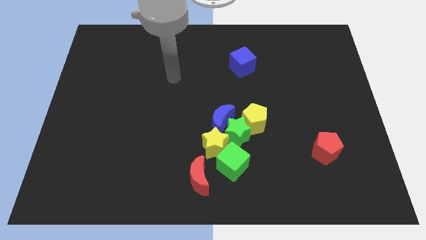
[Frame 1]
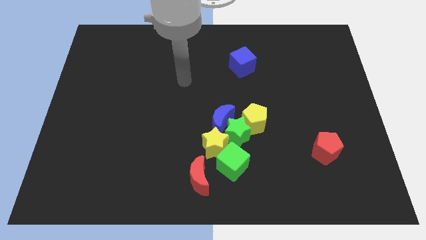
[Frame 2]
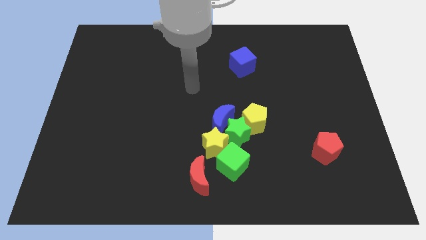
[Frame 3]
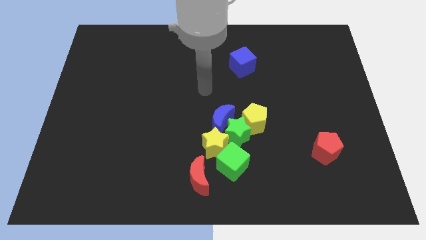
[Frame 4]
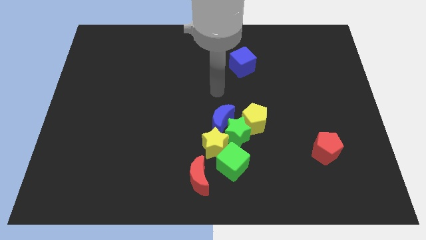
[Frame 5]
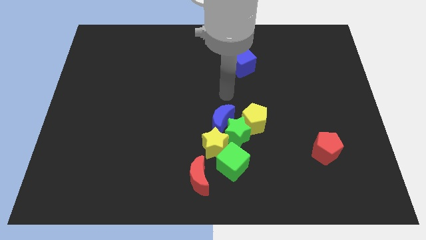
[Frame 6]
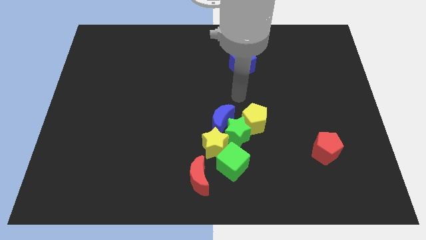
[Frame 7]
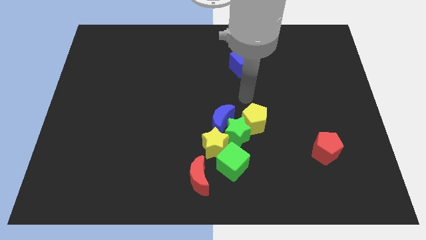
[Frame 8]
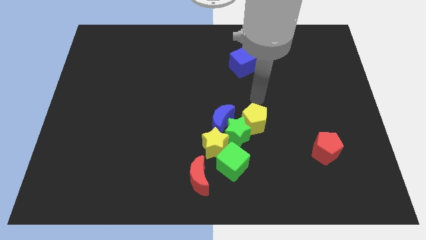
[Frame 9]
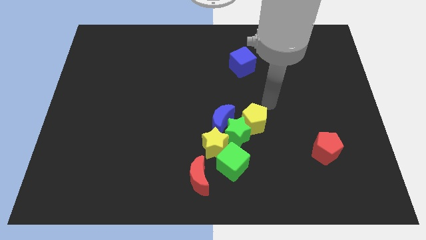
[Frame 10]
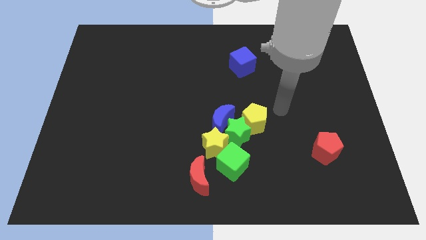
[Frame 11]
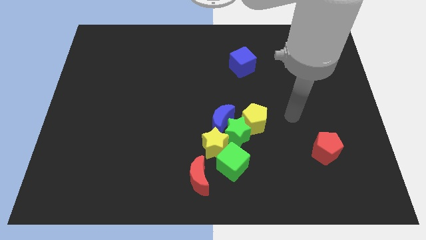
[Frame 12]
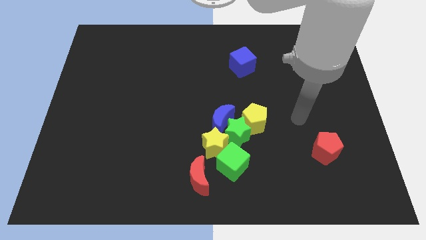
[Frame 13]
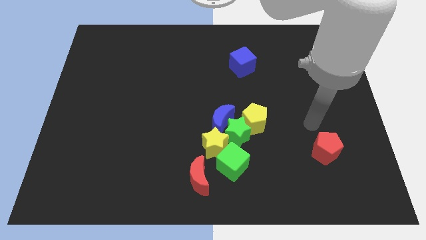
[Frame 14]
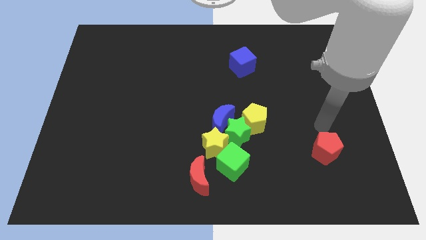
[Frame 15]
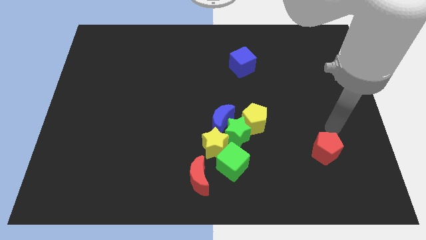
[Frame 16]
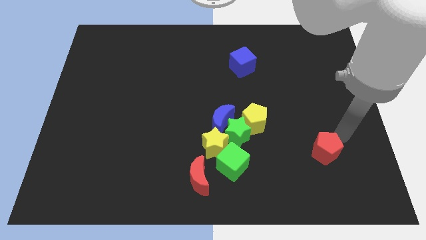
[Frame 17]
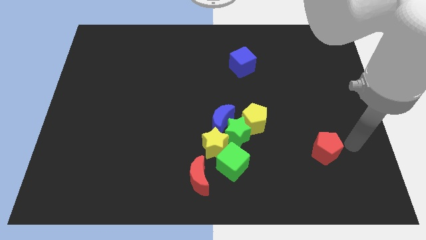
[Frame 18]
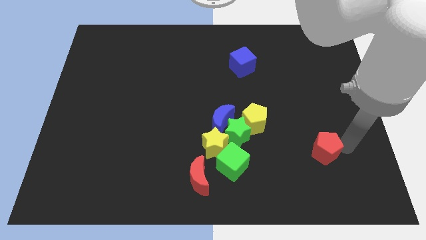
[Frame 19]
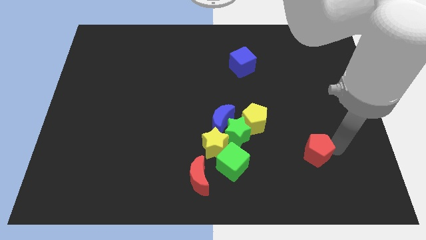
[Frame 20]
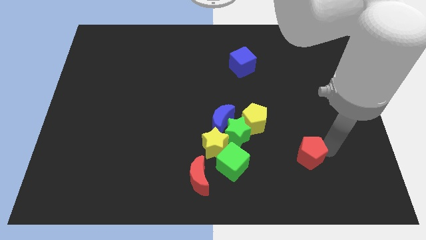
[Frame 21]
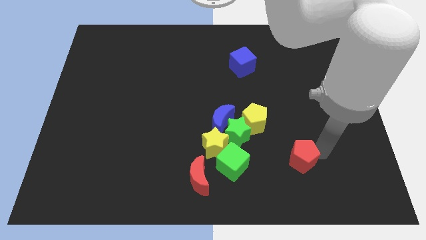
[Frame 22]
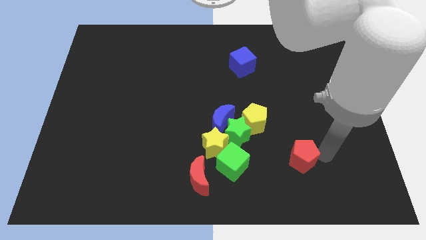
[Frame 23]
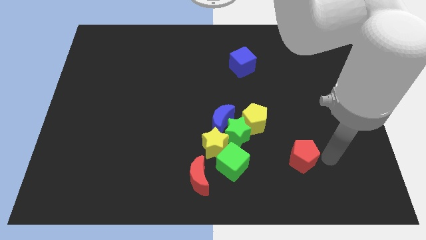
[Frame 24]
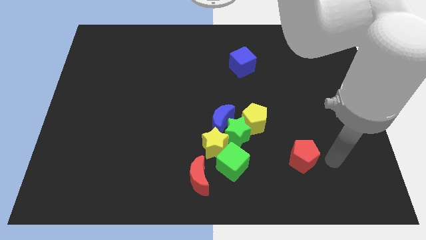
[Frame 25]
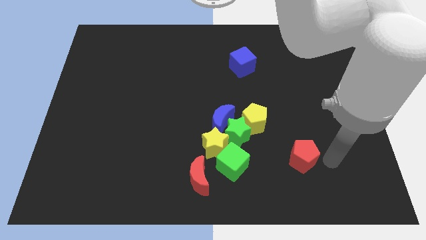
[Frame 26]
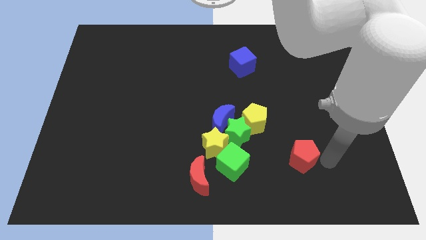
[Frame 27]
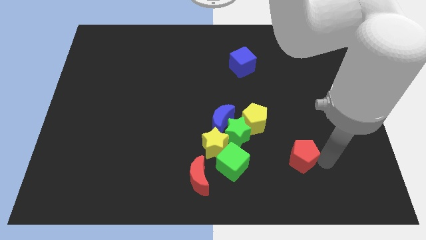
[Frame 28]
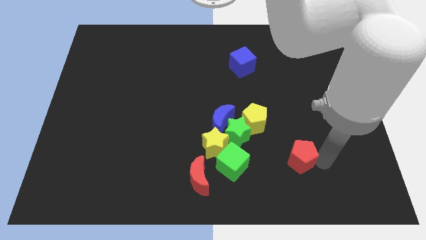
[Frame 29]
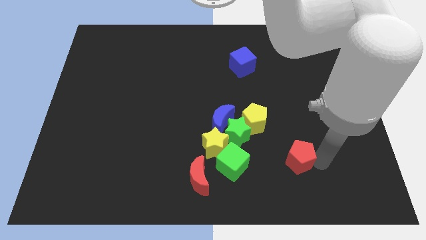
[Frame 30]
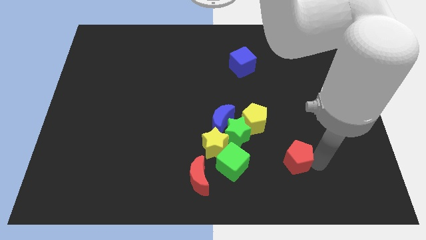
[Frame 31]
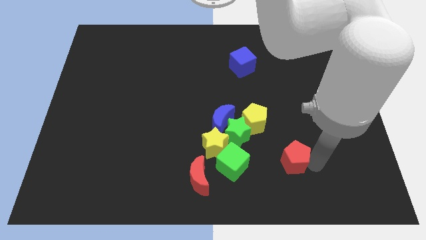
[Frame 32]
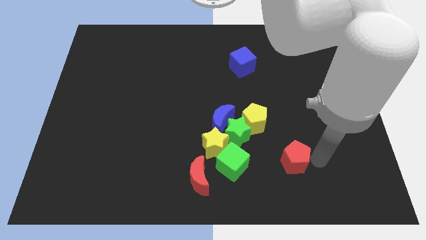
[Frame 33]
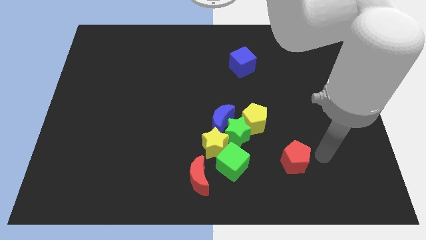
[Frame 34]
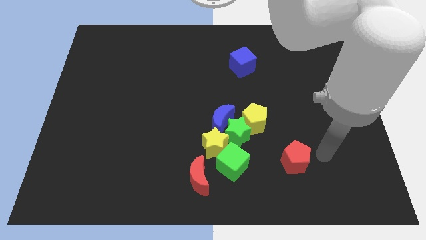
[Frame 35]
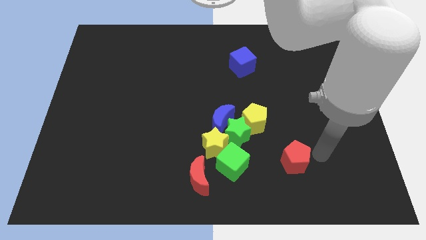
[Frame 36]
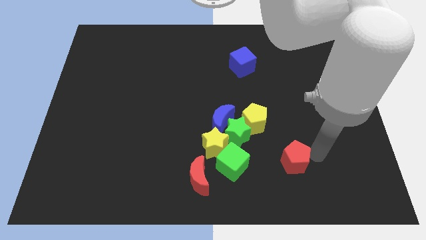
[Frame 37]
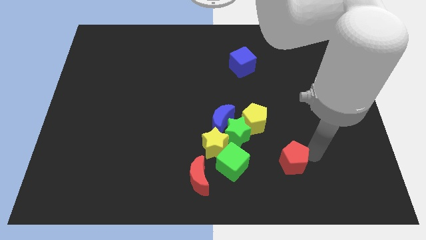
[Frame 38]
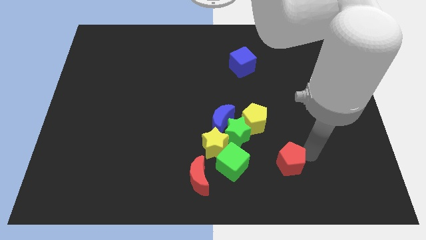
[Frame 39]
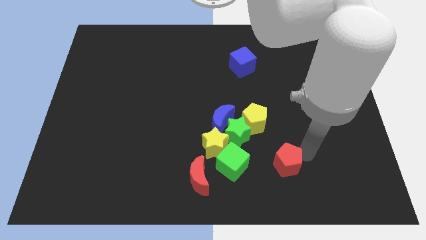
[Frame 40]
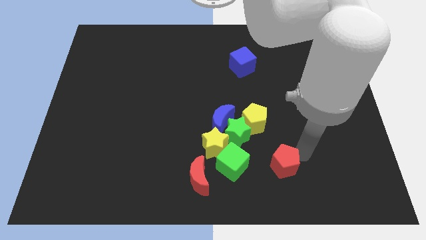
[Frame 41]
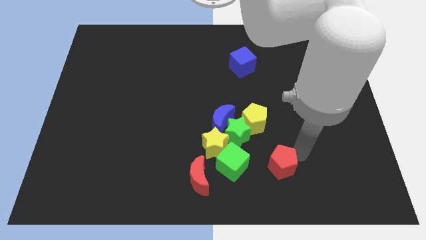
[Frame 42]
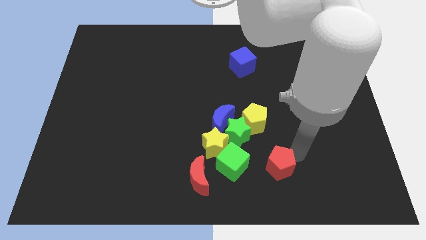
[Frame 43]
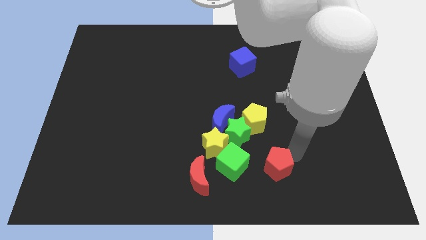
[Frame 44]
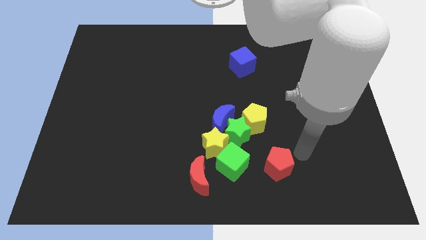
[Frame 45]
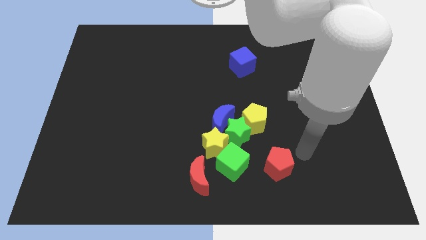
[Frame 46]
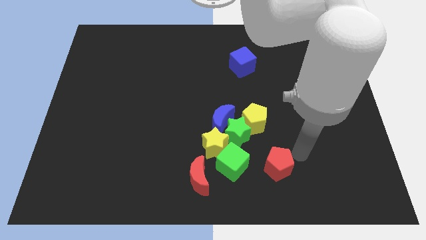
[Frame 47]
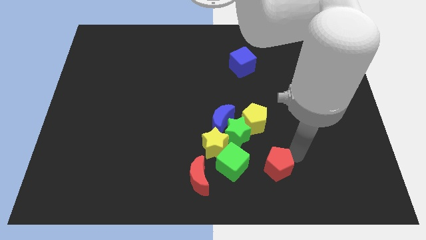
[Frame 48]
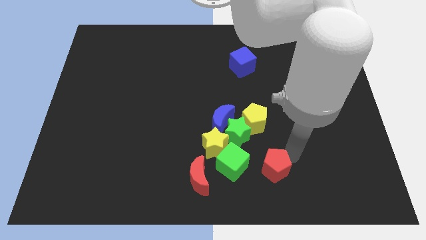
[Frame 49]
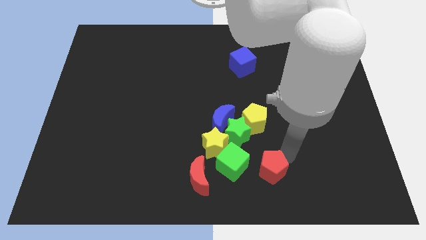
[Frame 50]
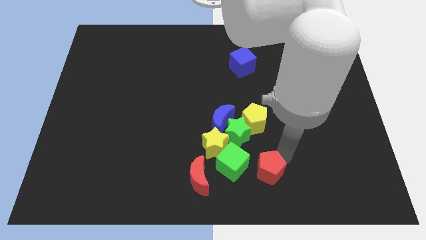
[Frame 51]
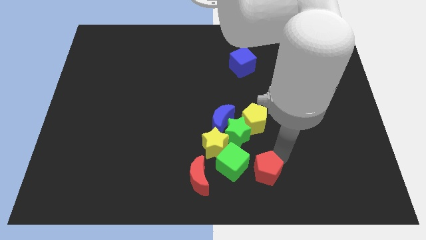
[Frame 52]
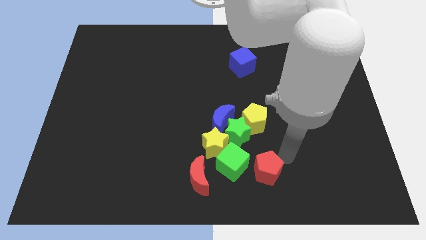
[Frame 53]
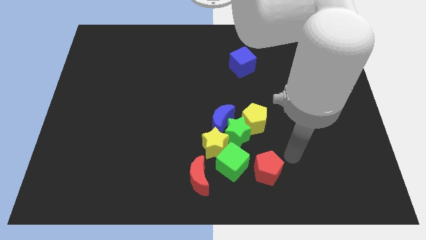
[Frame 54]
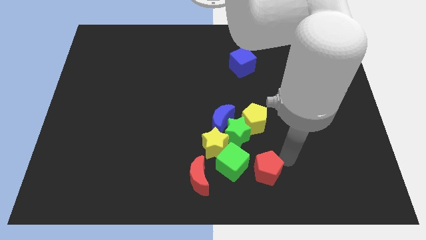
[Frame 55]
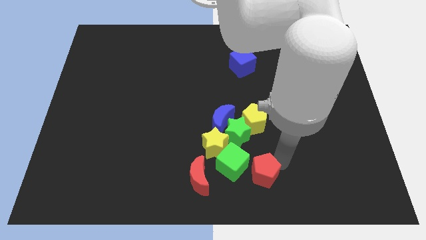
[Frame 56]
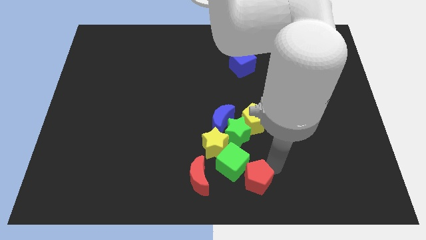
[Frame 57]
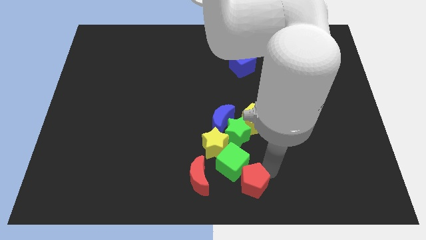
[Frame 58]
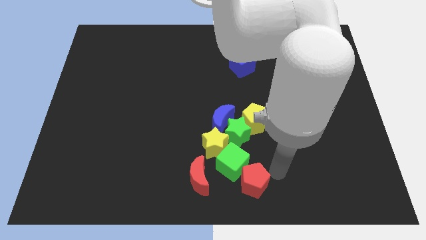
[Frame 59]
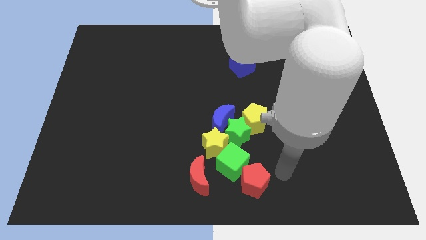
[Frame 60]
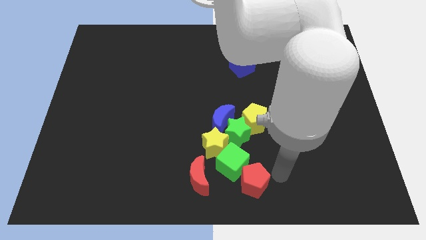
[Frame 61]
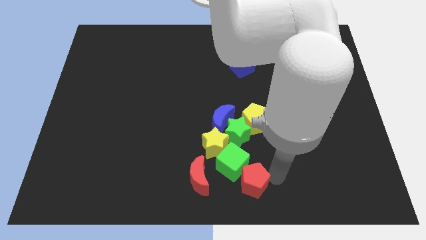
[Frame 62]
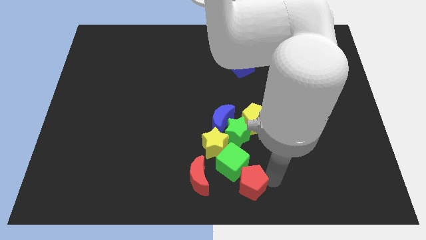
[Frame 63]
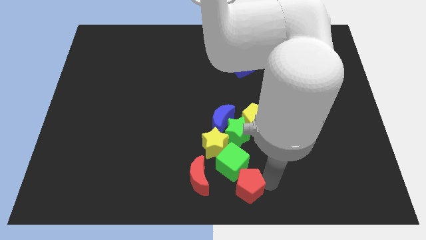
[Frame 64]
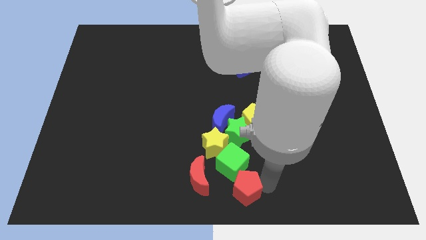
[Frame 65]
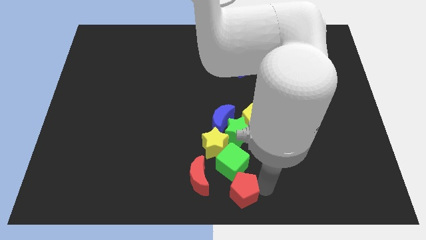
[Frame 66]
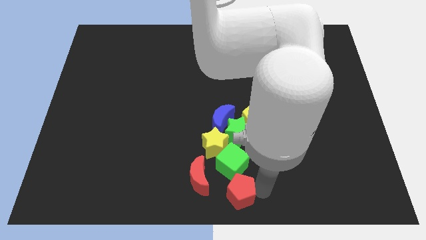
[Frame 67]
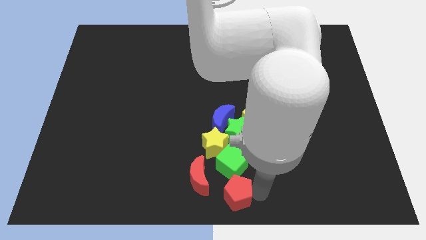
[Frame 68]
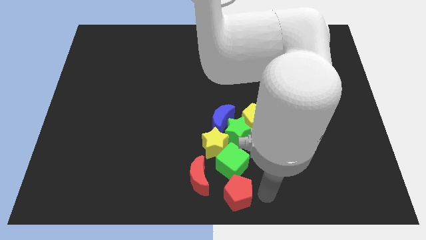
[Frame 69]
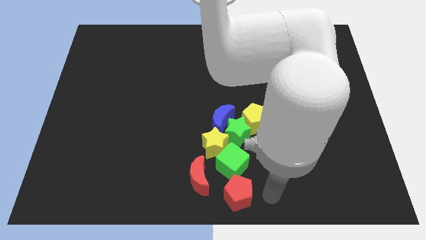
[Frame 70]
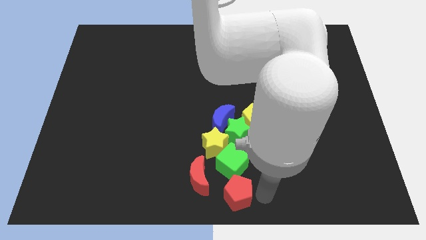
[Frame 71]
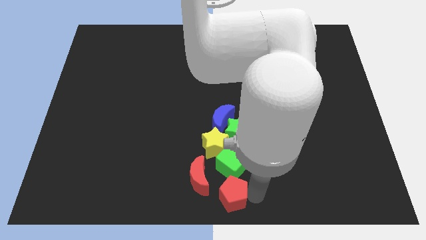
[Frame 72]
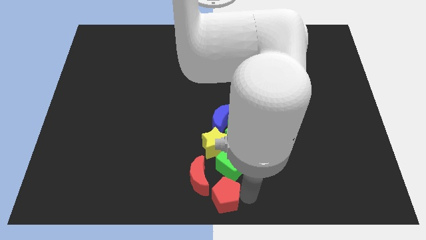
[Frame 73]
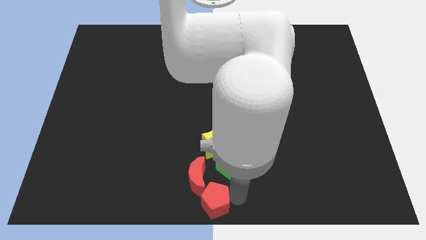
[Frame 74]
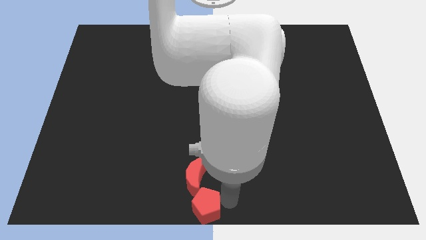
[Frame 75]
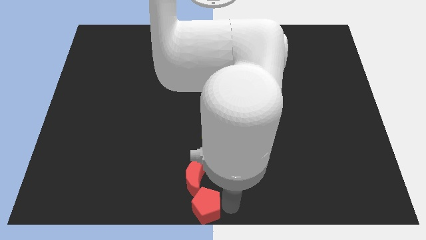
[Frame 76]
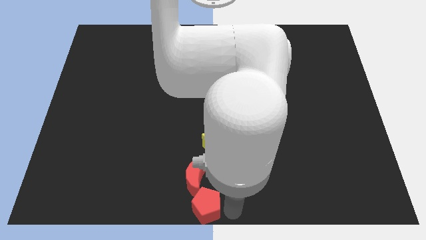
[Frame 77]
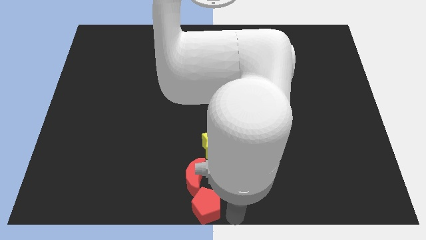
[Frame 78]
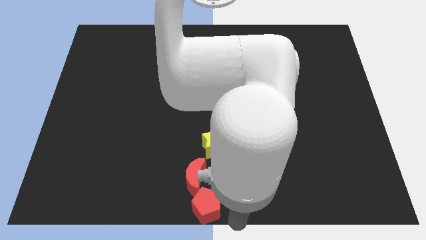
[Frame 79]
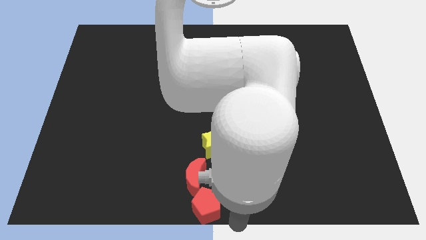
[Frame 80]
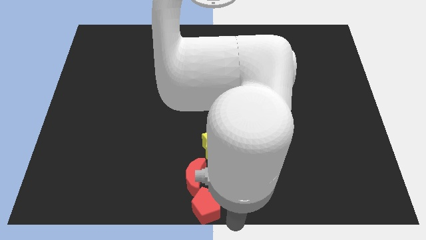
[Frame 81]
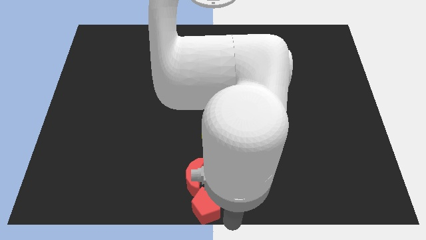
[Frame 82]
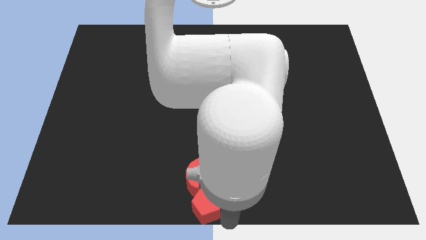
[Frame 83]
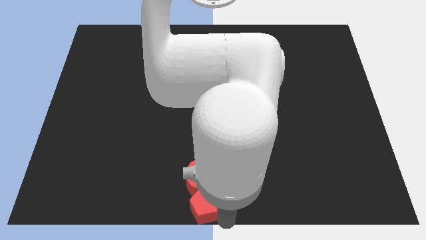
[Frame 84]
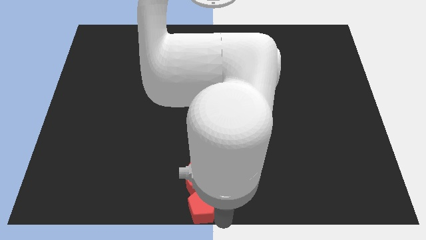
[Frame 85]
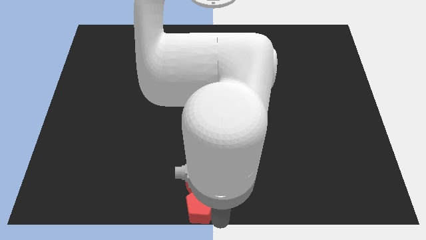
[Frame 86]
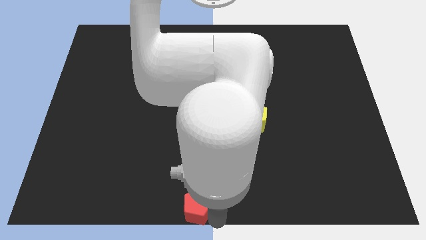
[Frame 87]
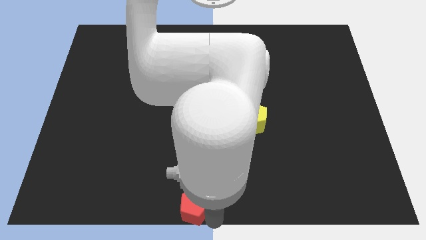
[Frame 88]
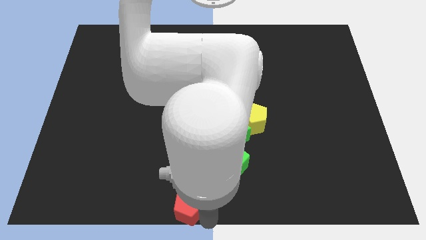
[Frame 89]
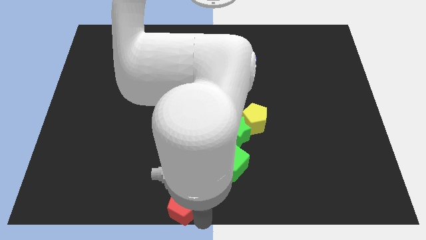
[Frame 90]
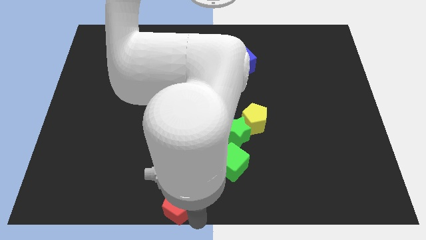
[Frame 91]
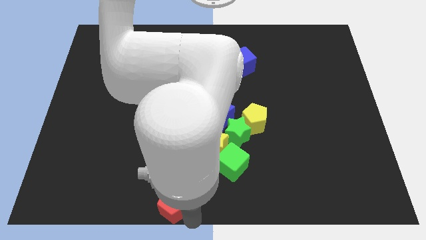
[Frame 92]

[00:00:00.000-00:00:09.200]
move the red pentagon left
